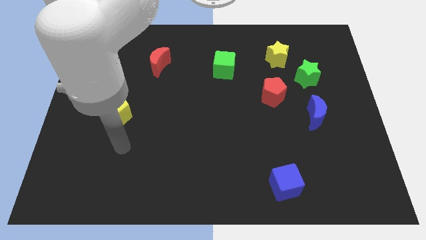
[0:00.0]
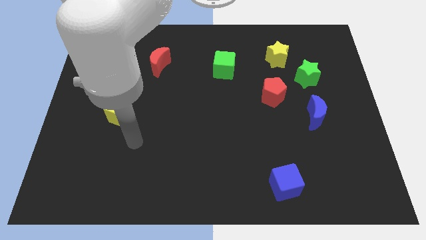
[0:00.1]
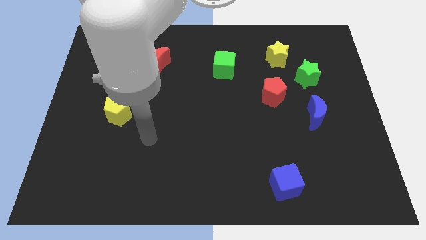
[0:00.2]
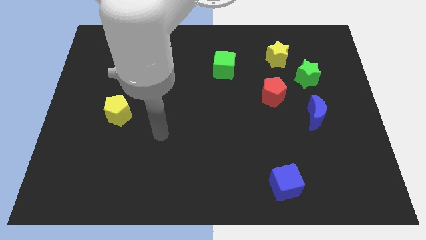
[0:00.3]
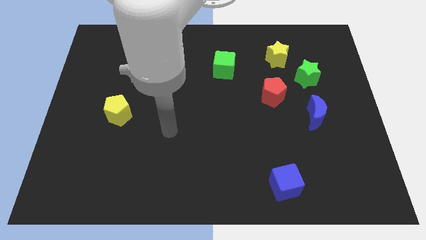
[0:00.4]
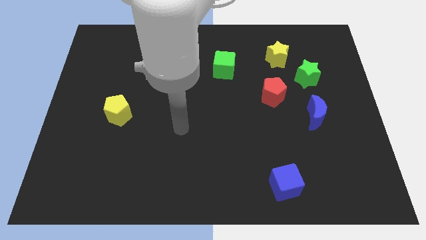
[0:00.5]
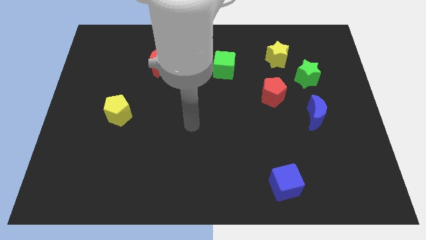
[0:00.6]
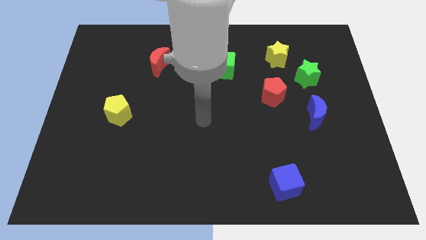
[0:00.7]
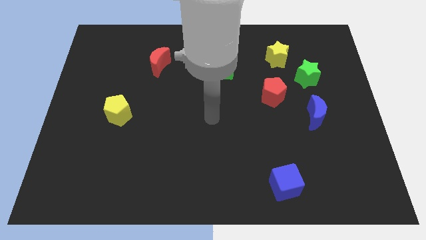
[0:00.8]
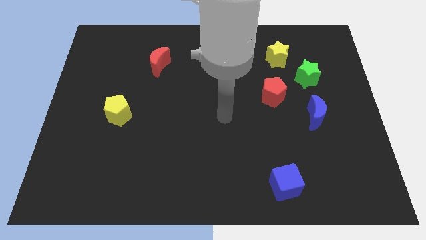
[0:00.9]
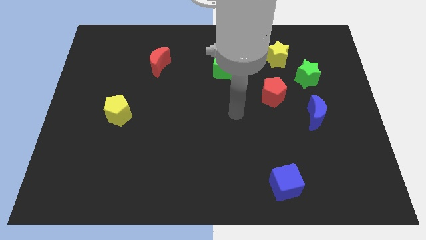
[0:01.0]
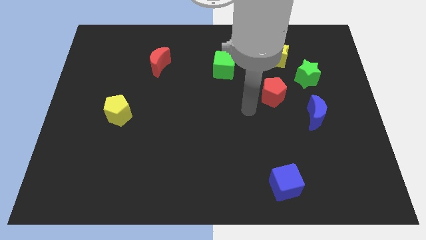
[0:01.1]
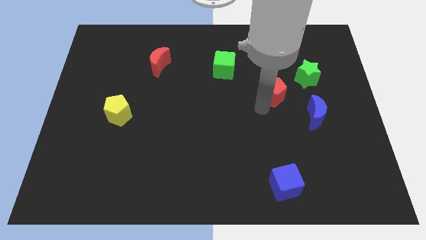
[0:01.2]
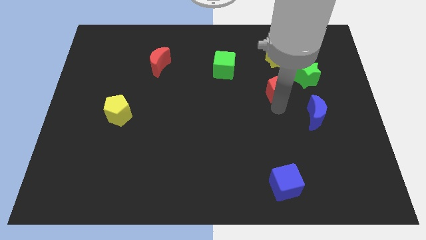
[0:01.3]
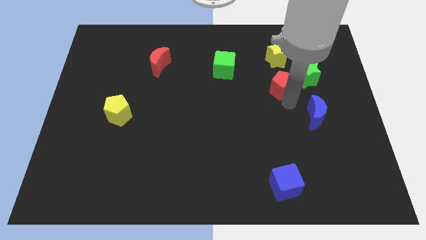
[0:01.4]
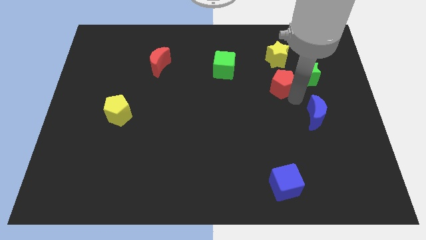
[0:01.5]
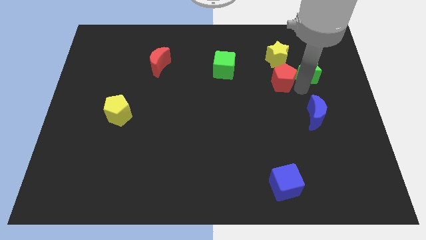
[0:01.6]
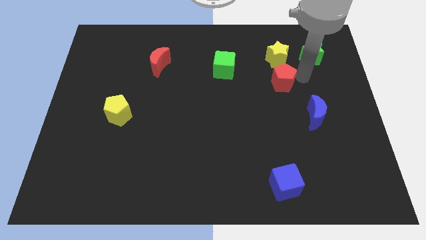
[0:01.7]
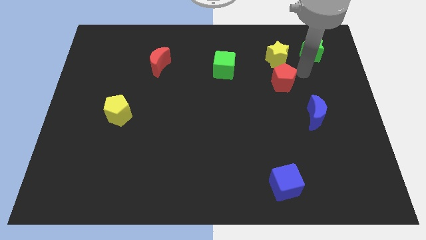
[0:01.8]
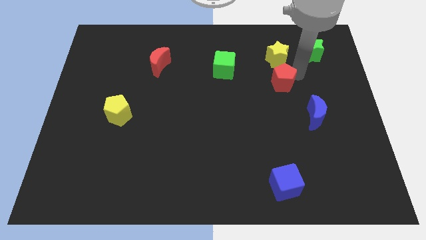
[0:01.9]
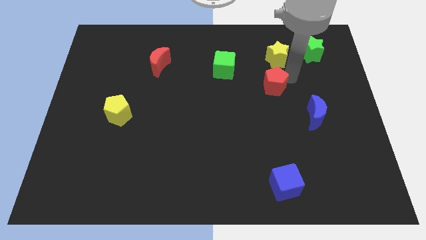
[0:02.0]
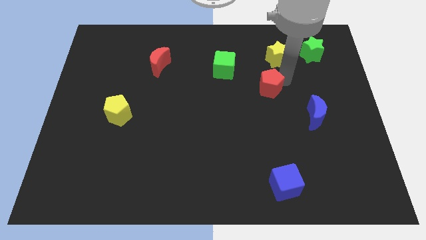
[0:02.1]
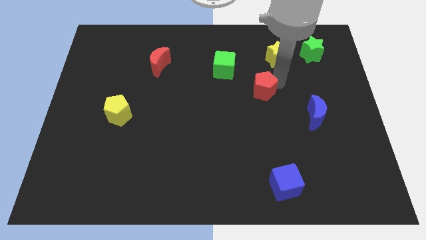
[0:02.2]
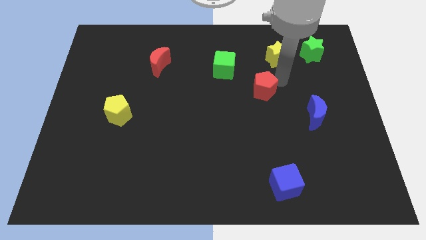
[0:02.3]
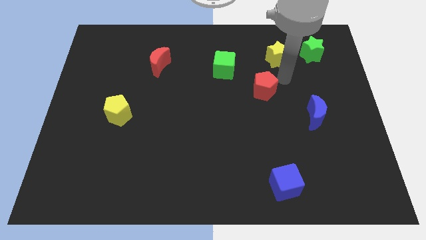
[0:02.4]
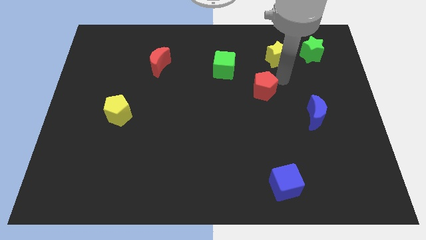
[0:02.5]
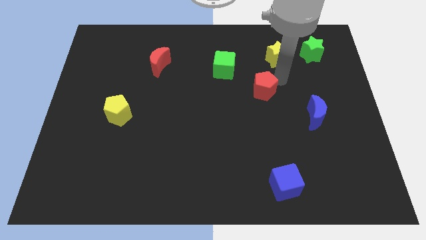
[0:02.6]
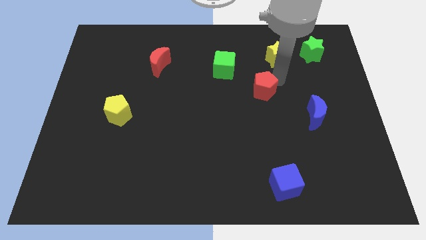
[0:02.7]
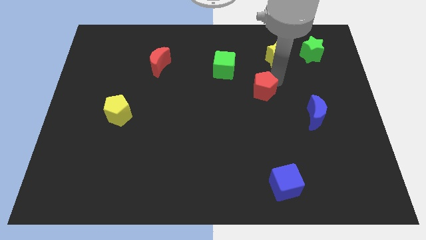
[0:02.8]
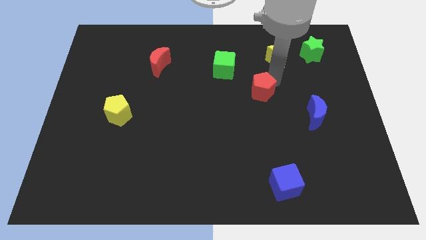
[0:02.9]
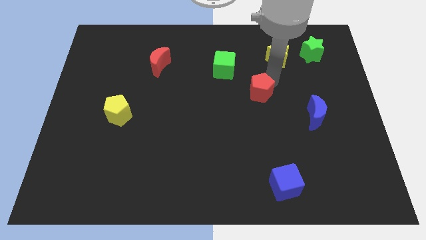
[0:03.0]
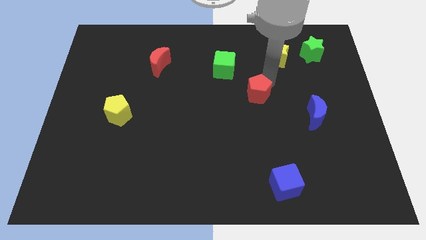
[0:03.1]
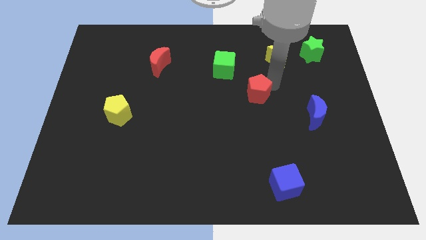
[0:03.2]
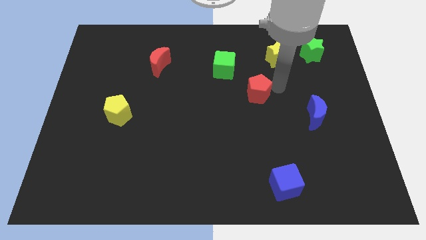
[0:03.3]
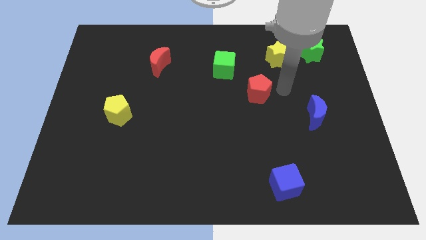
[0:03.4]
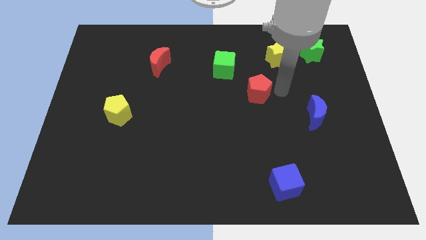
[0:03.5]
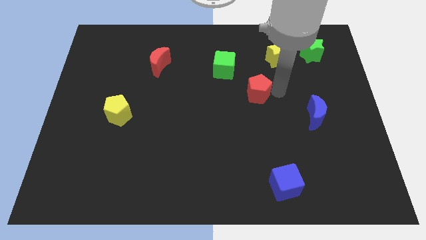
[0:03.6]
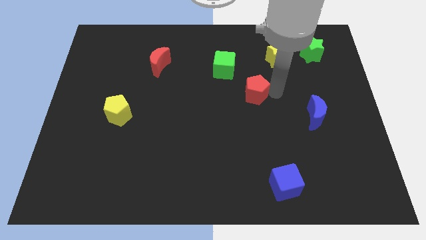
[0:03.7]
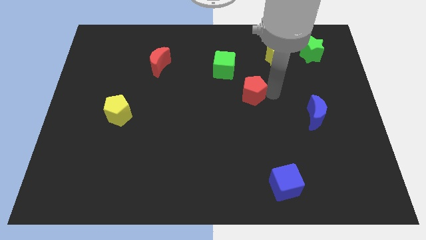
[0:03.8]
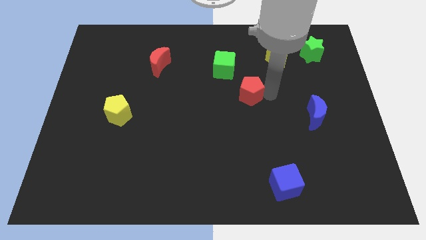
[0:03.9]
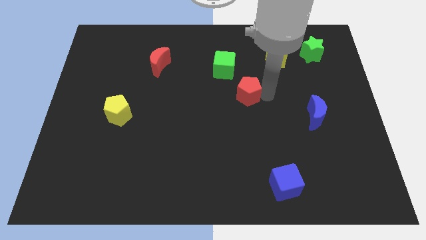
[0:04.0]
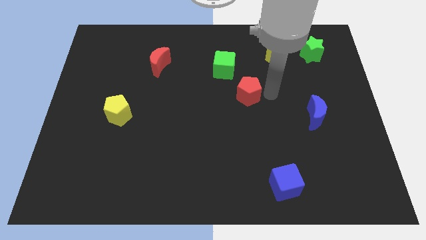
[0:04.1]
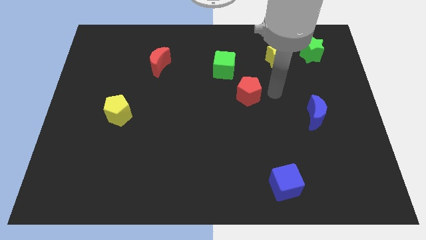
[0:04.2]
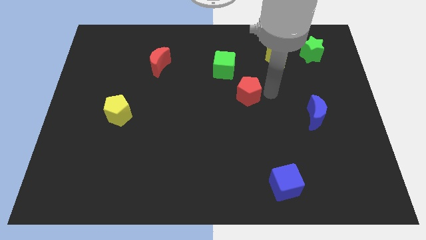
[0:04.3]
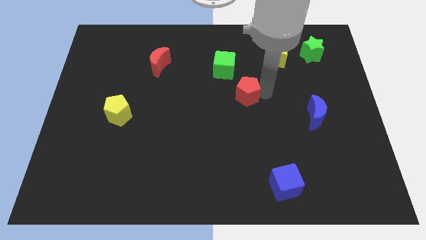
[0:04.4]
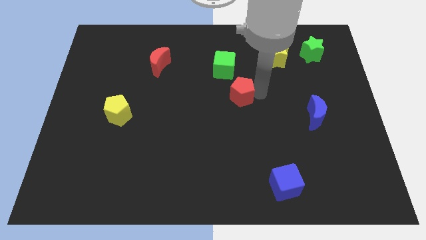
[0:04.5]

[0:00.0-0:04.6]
slightly slide the red pentagon to the left

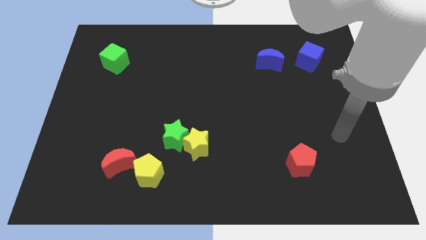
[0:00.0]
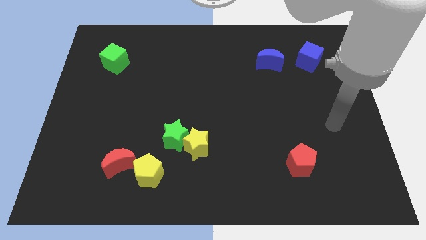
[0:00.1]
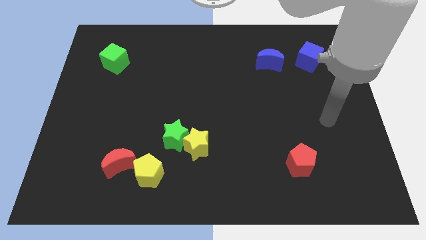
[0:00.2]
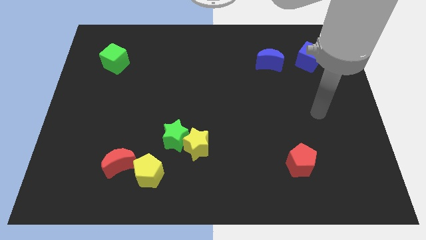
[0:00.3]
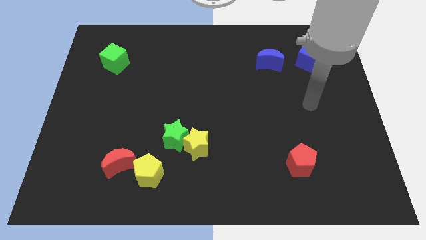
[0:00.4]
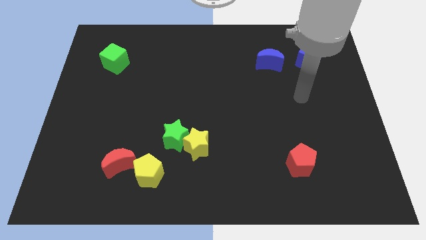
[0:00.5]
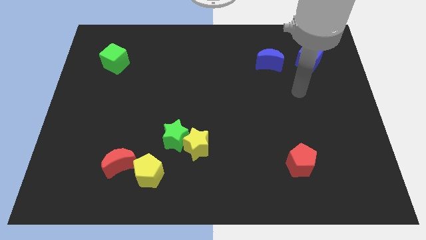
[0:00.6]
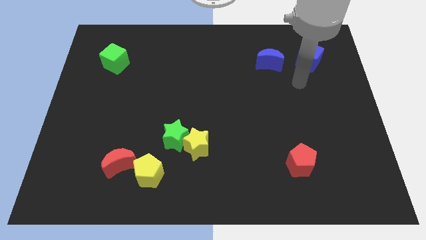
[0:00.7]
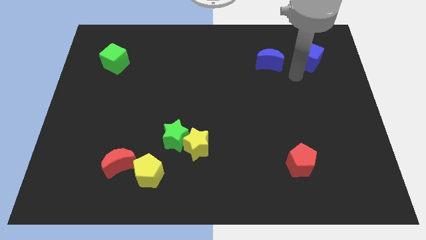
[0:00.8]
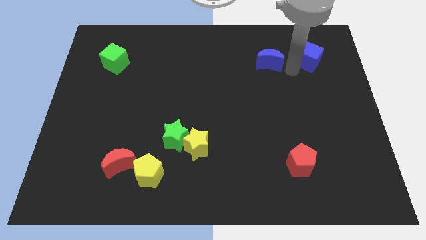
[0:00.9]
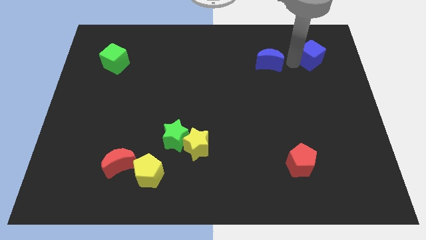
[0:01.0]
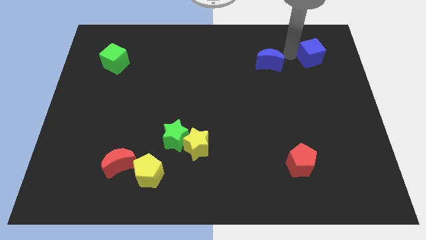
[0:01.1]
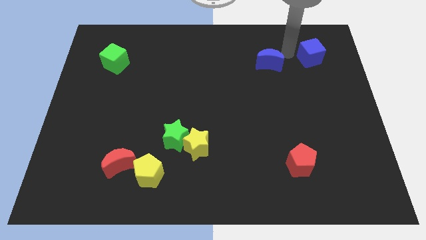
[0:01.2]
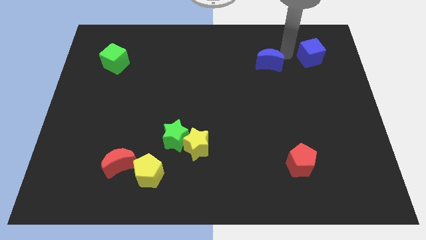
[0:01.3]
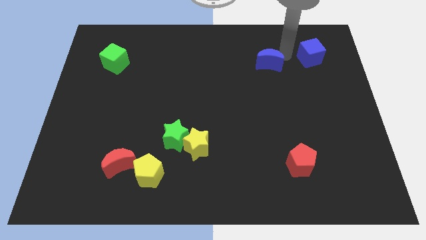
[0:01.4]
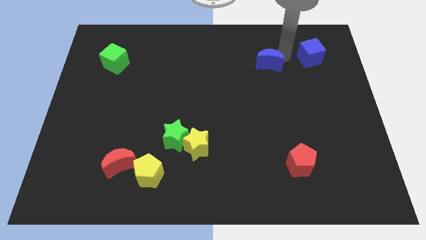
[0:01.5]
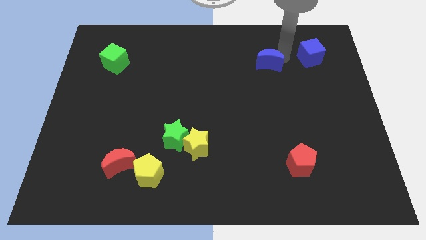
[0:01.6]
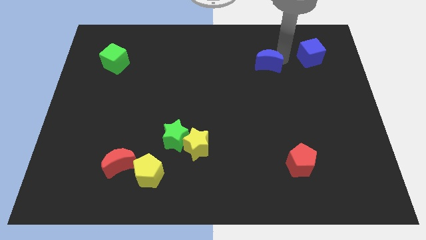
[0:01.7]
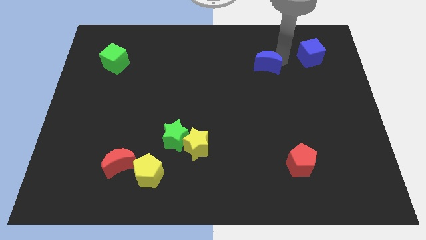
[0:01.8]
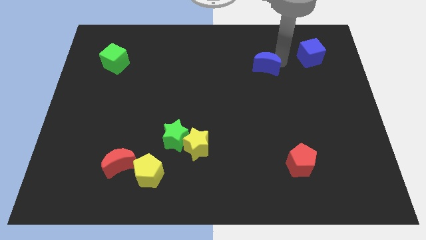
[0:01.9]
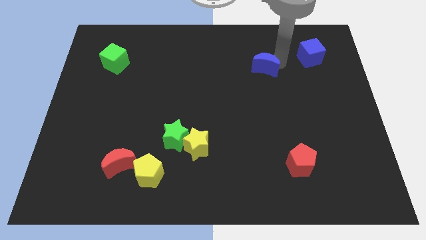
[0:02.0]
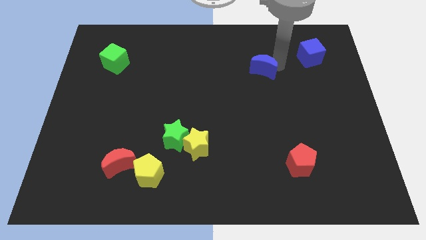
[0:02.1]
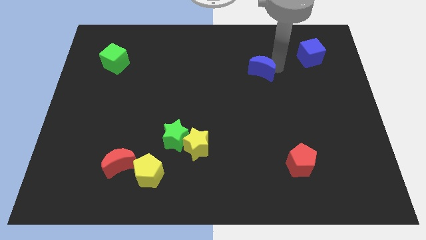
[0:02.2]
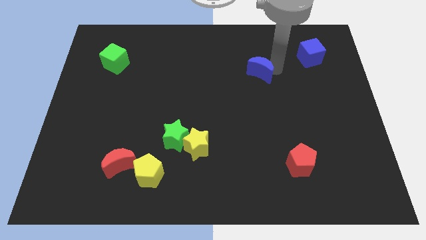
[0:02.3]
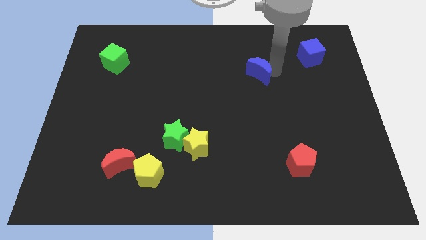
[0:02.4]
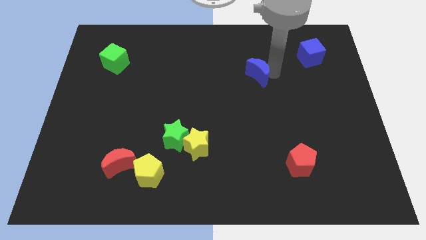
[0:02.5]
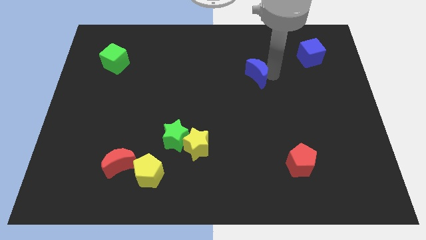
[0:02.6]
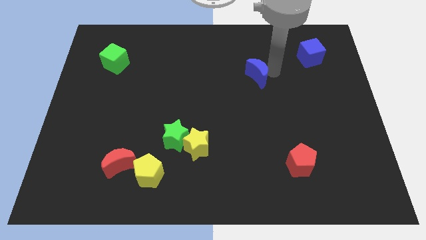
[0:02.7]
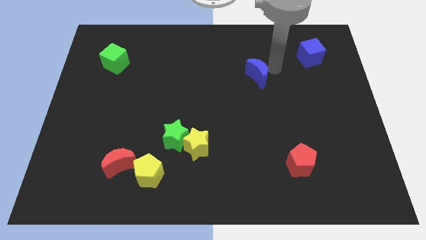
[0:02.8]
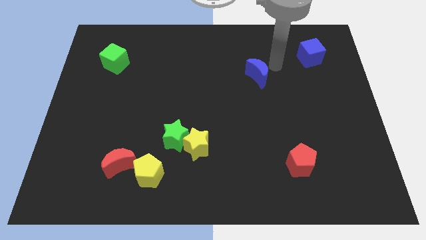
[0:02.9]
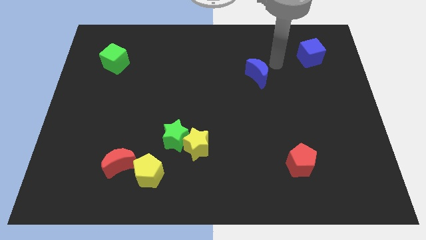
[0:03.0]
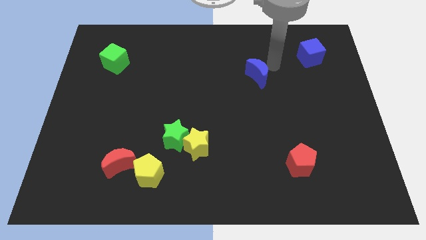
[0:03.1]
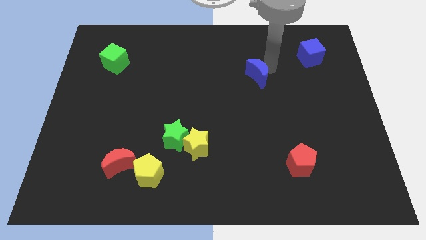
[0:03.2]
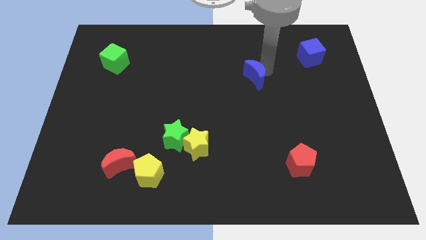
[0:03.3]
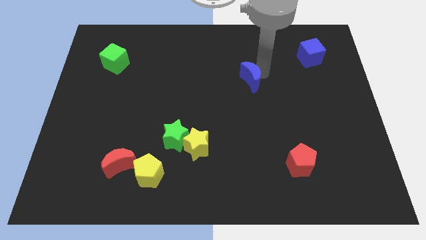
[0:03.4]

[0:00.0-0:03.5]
slide the blue moon diagonally down and to the left somewhat
